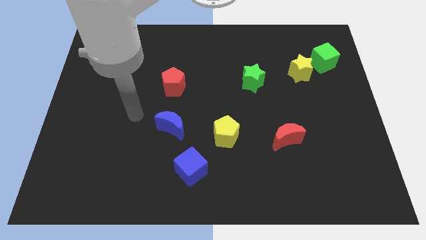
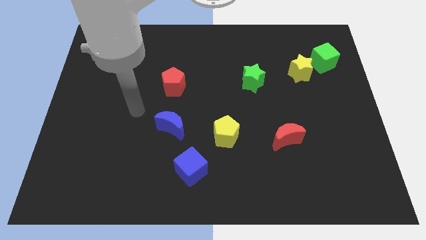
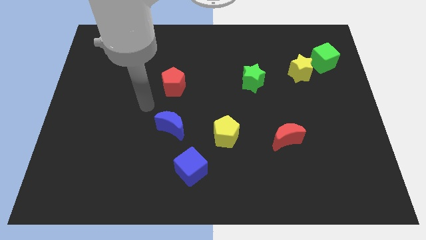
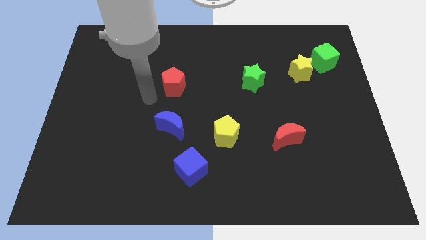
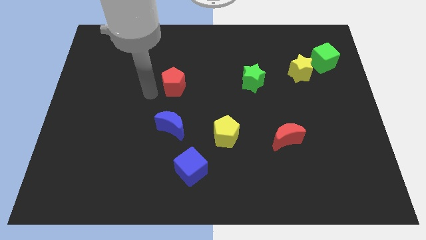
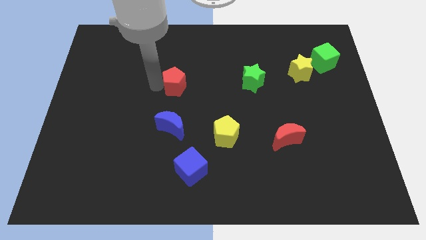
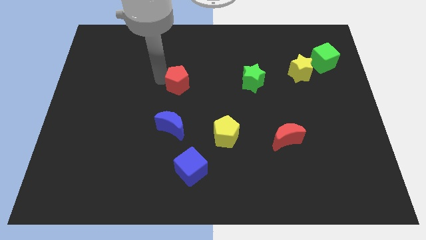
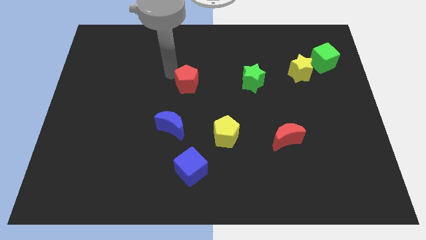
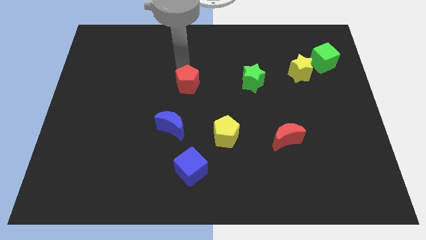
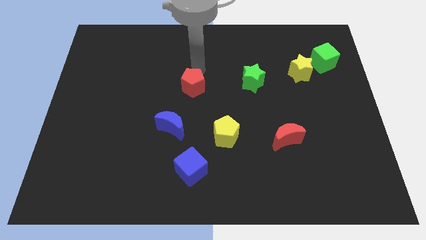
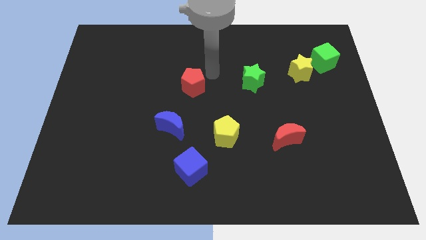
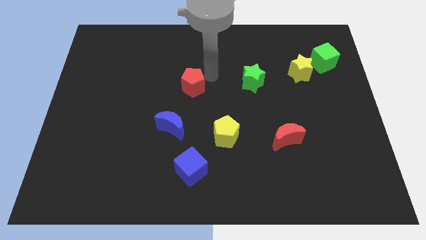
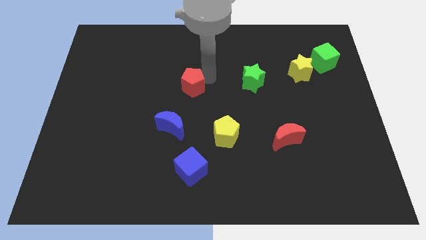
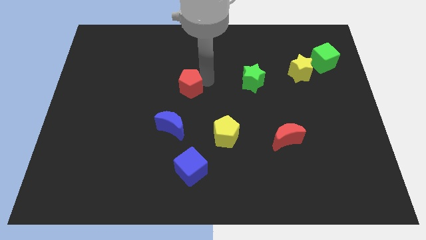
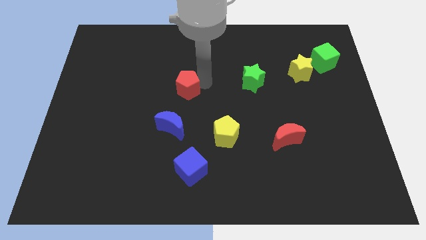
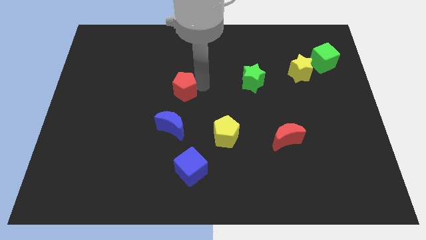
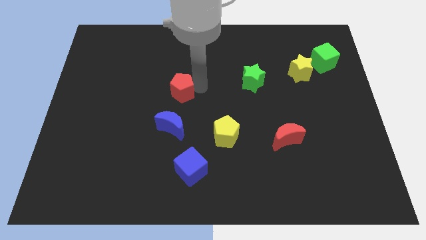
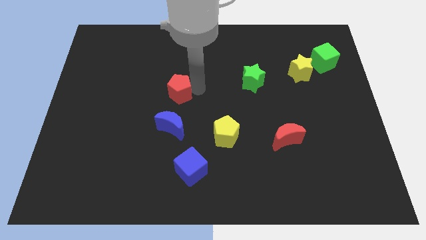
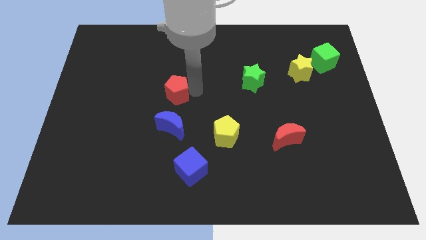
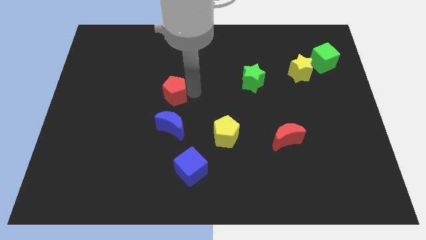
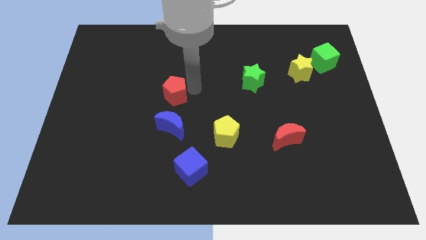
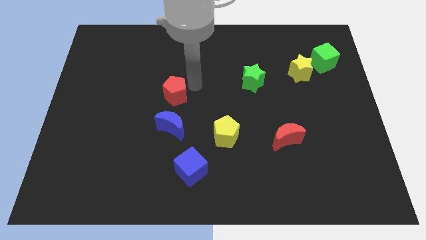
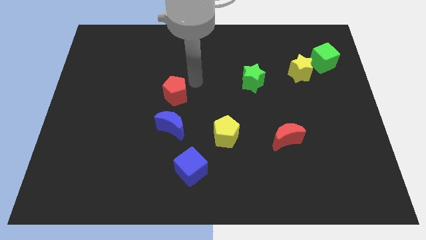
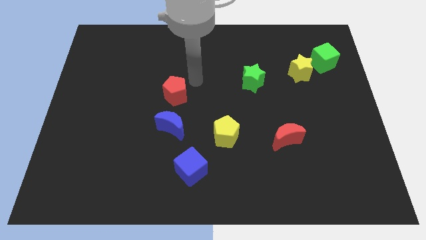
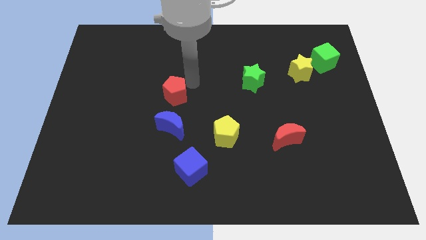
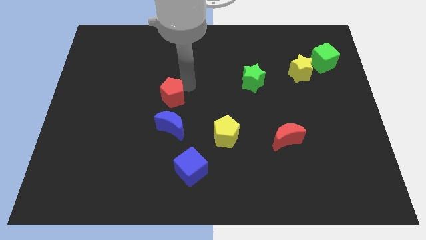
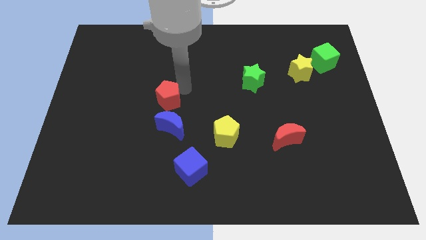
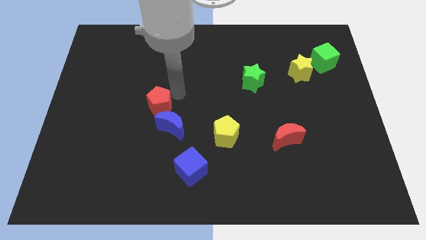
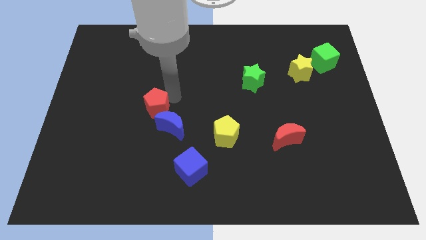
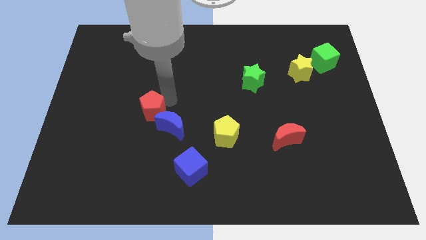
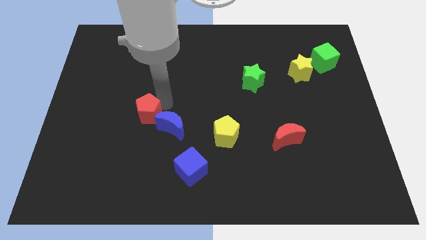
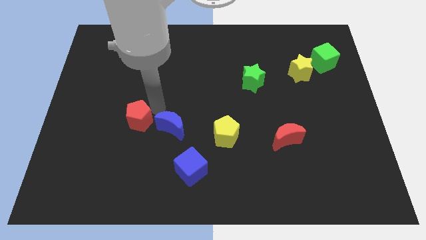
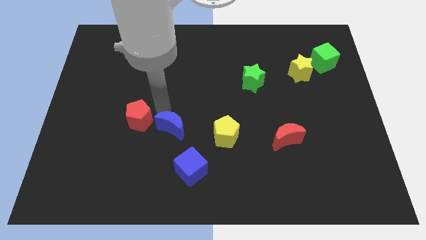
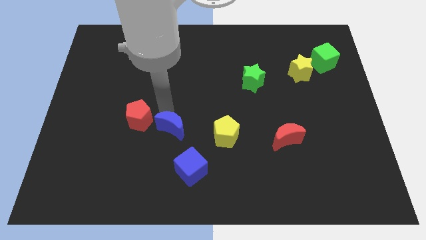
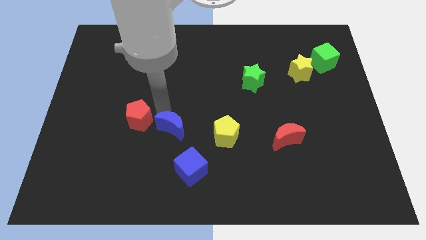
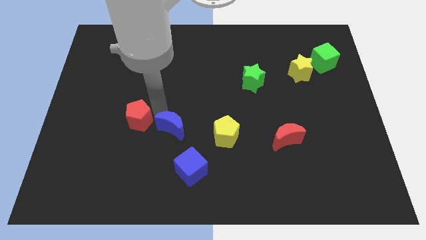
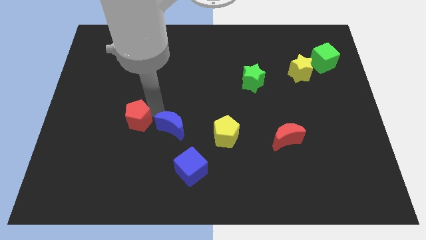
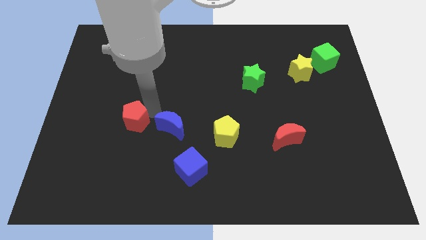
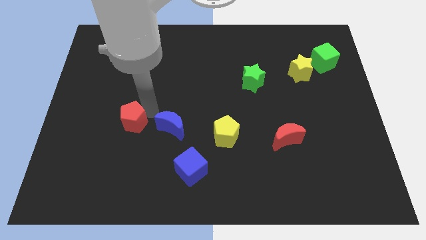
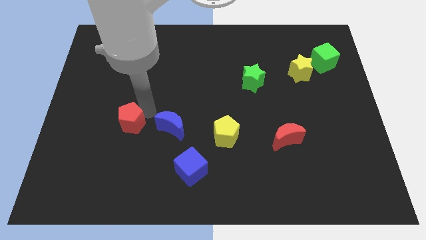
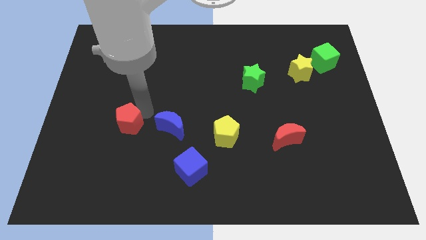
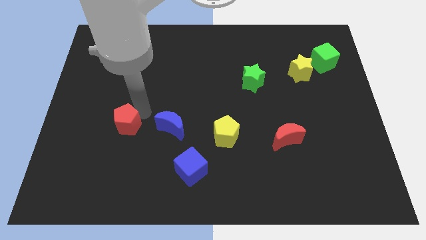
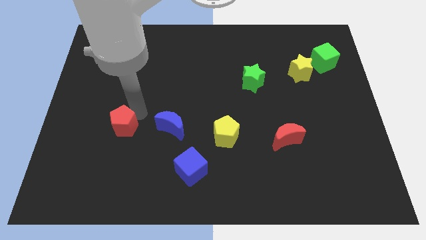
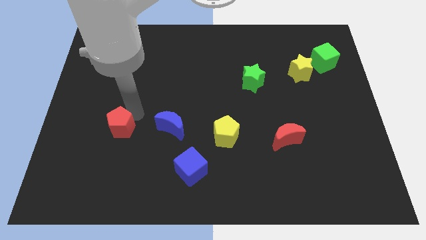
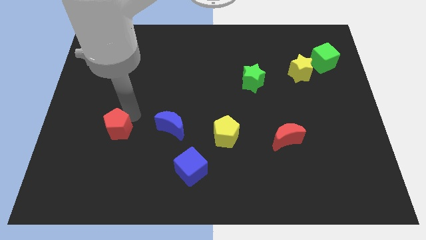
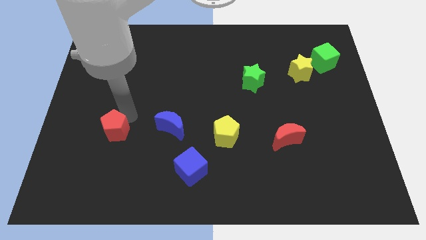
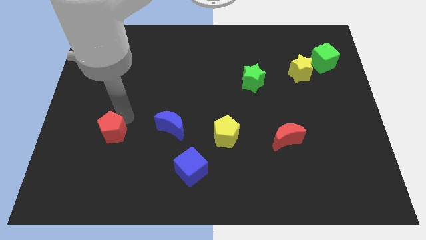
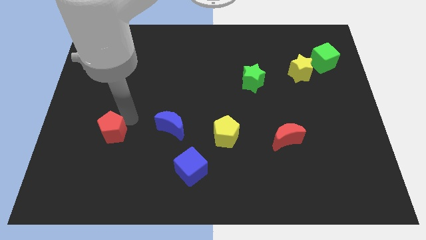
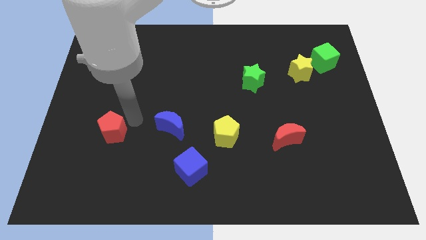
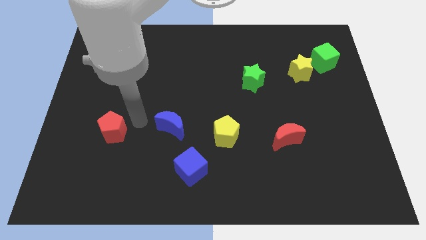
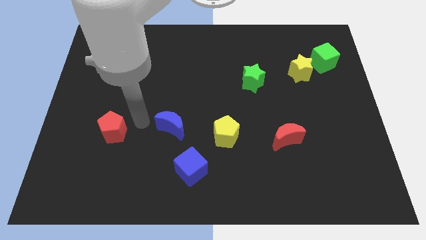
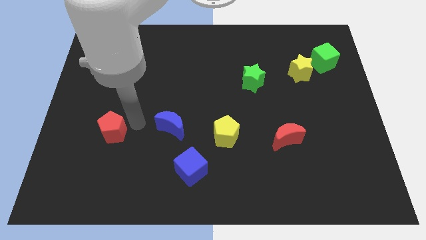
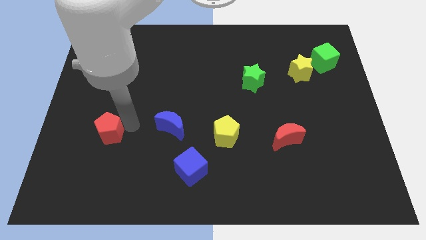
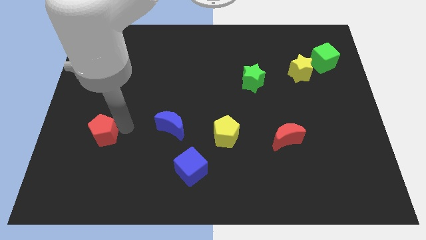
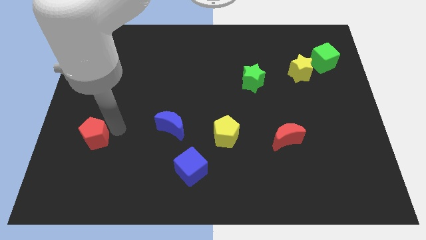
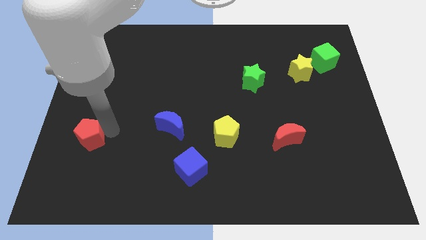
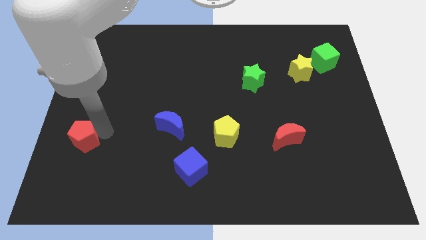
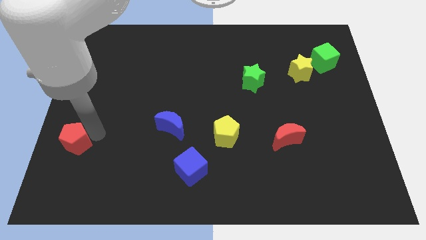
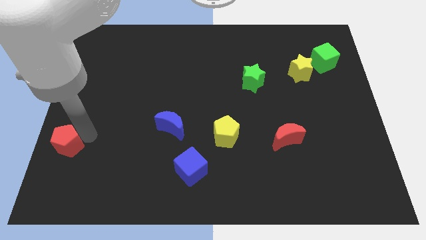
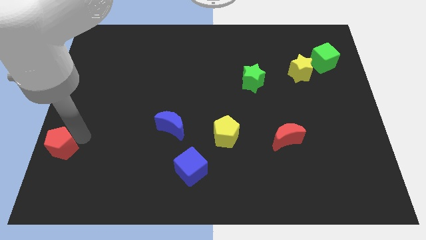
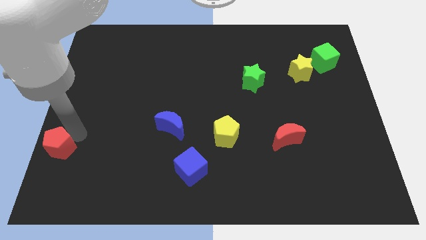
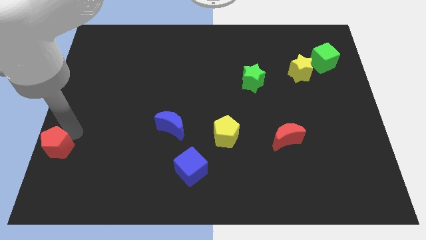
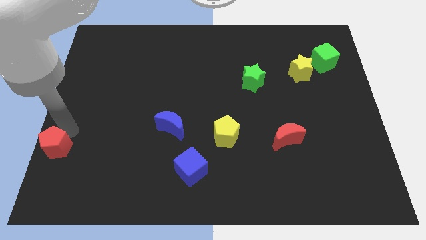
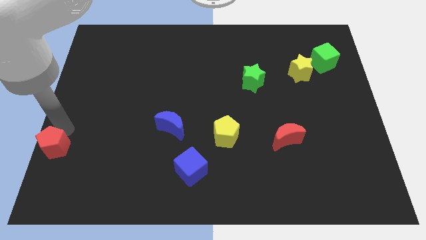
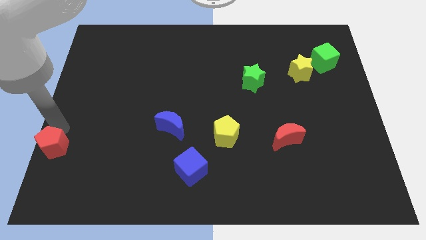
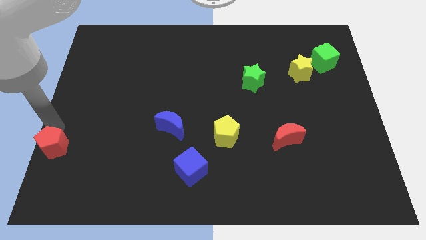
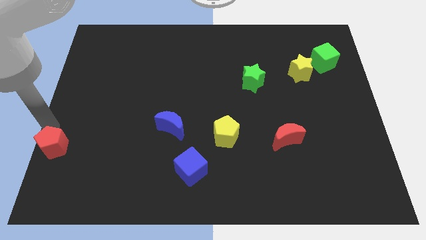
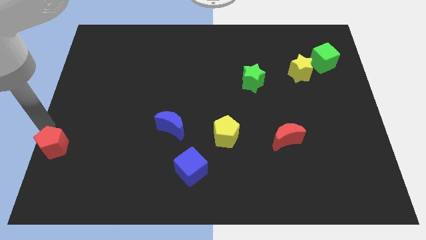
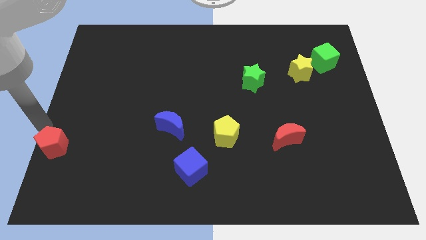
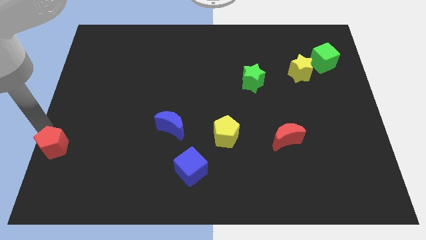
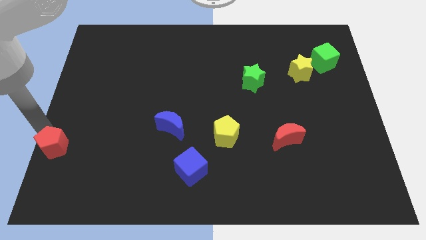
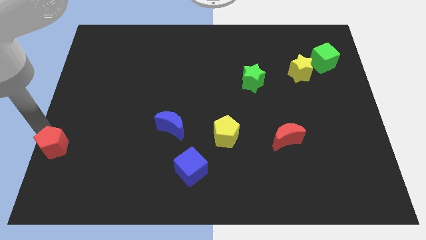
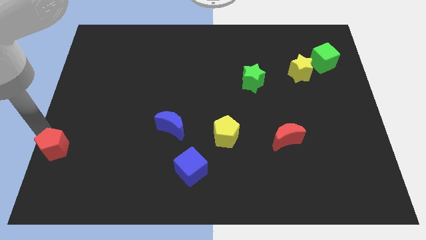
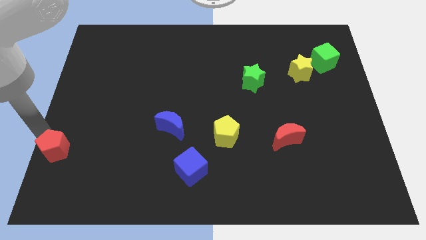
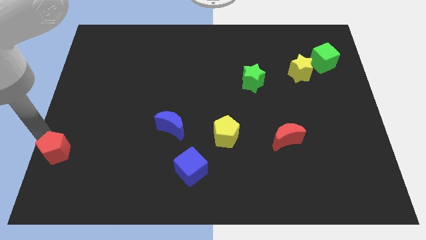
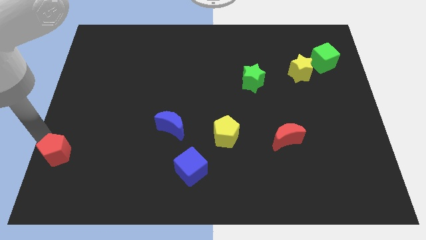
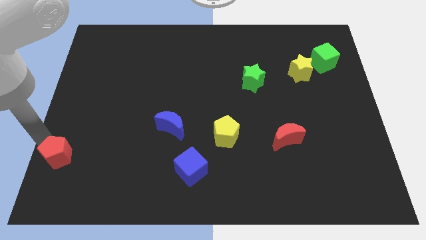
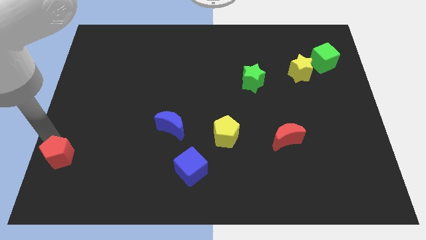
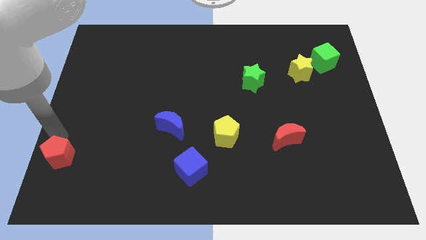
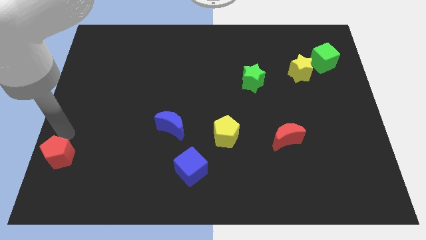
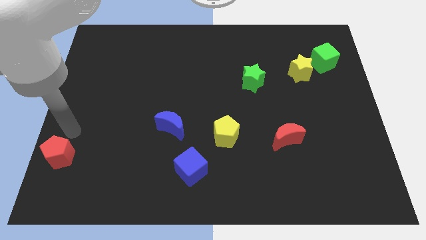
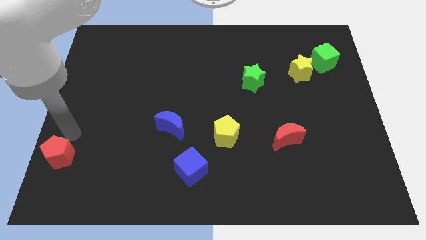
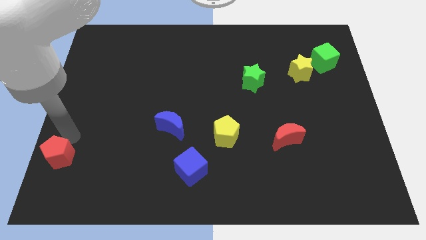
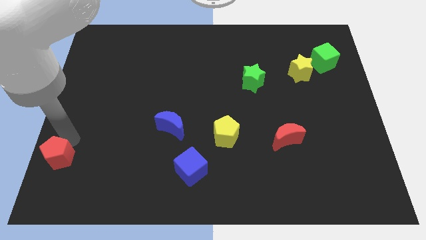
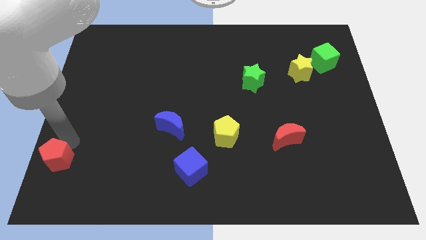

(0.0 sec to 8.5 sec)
put the red pentagon to the lower left corner
